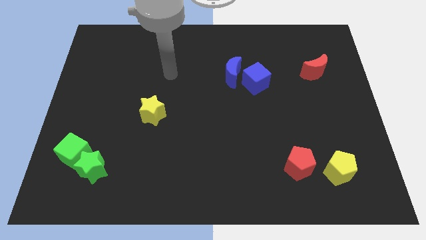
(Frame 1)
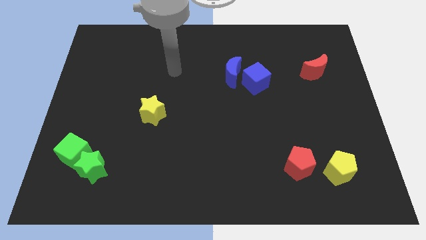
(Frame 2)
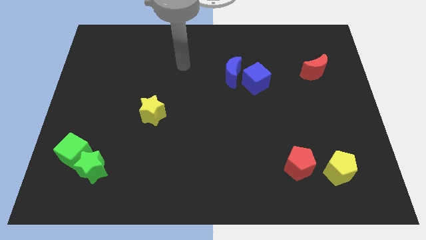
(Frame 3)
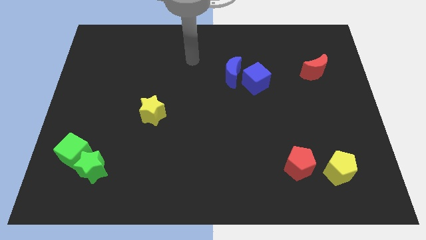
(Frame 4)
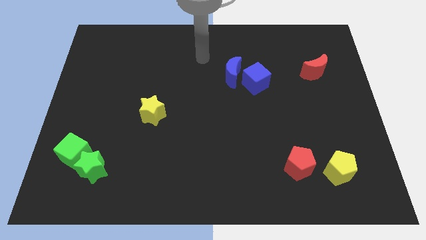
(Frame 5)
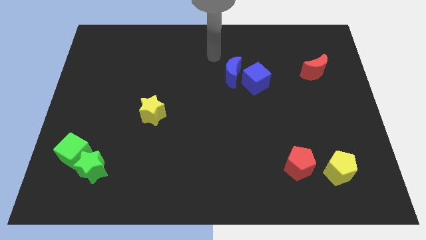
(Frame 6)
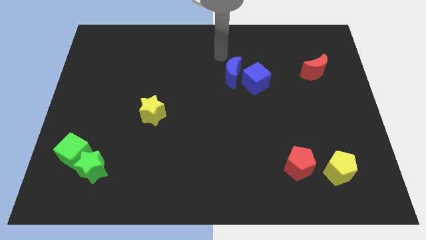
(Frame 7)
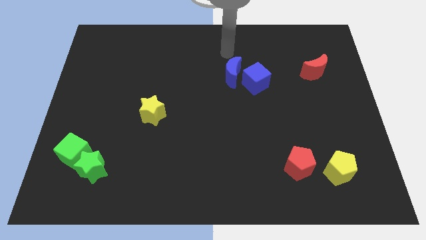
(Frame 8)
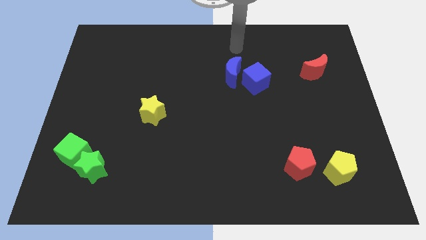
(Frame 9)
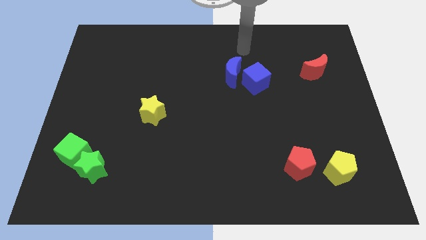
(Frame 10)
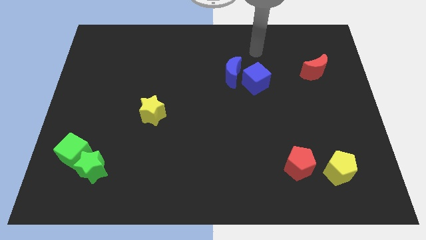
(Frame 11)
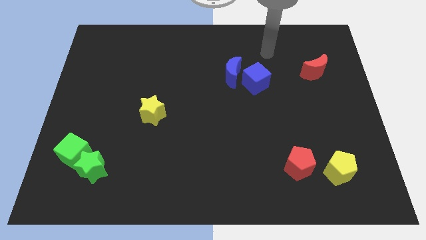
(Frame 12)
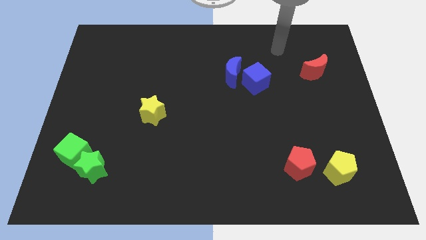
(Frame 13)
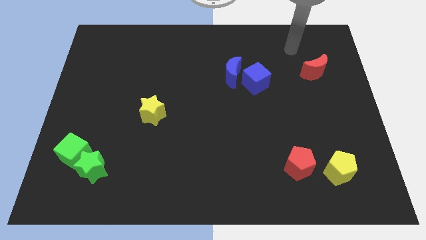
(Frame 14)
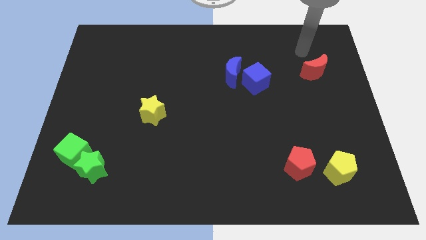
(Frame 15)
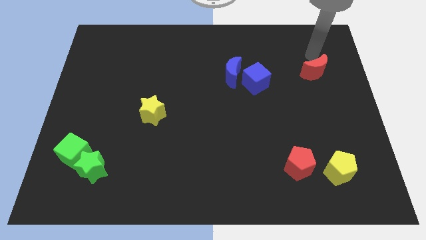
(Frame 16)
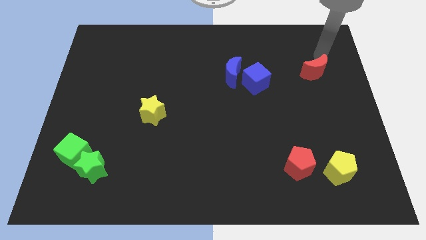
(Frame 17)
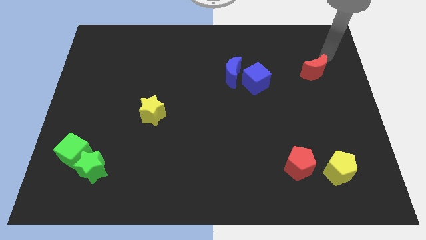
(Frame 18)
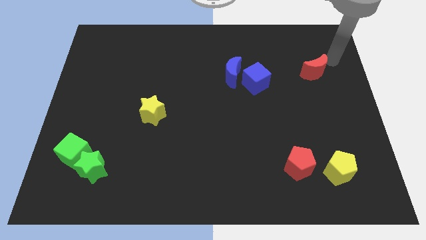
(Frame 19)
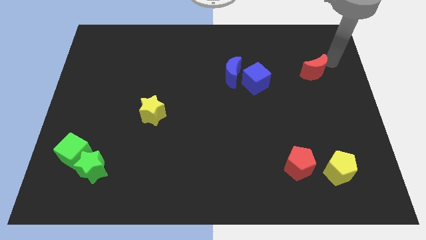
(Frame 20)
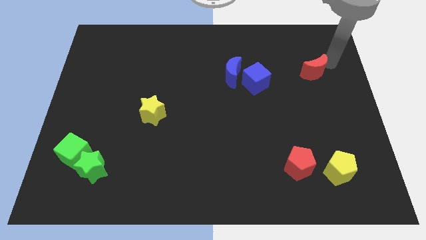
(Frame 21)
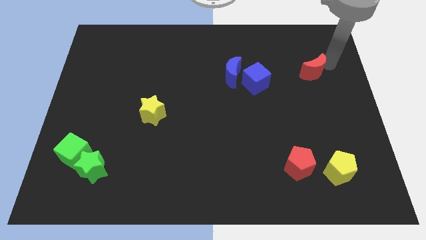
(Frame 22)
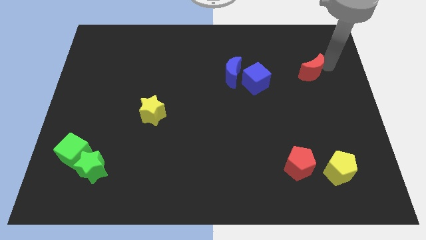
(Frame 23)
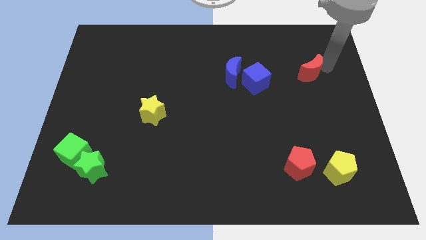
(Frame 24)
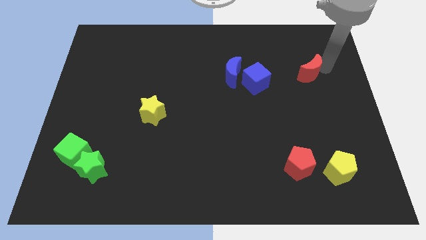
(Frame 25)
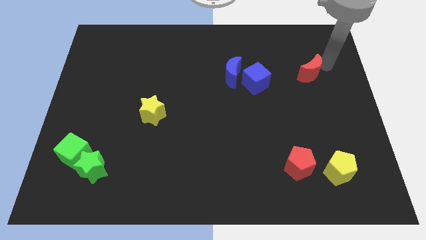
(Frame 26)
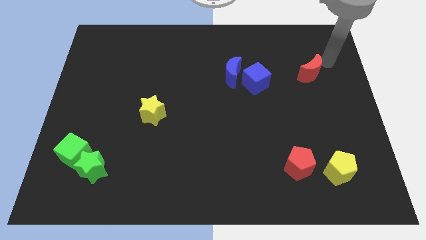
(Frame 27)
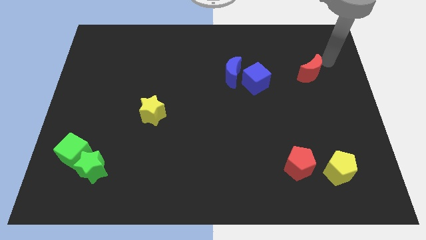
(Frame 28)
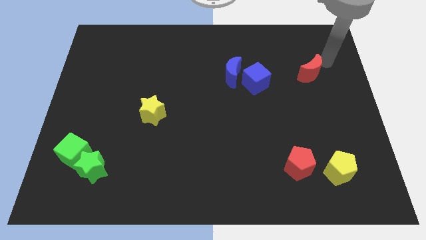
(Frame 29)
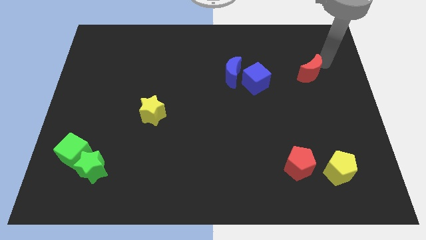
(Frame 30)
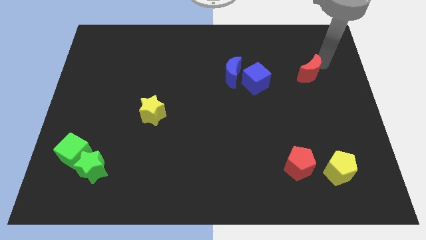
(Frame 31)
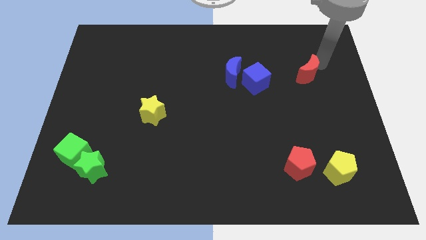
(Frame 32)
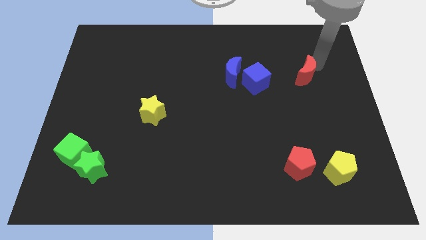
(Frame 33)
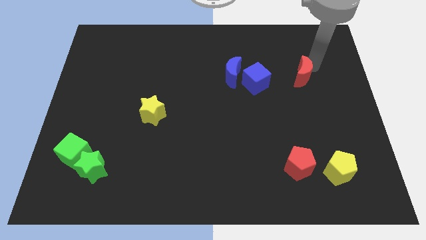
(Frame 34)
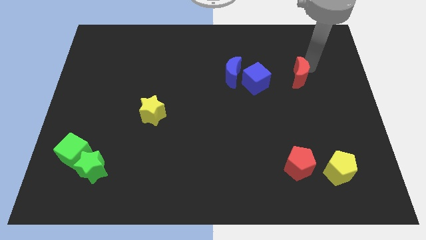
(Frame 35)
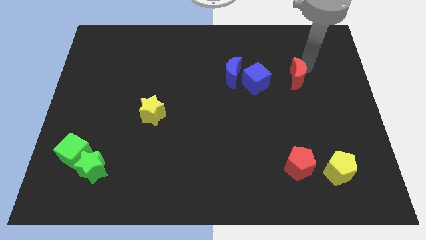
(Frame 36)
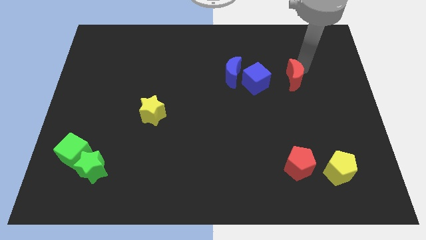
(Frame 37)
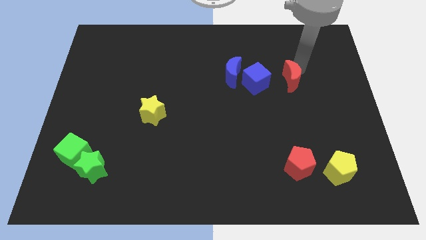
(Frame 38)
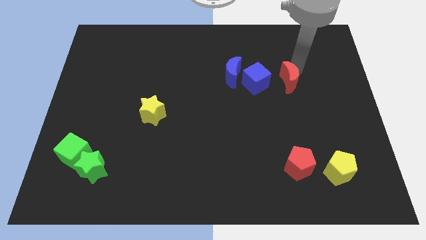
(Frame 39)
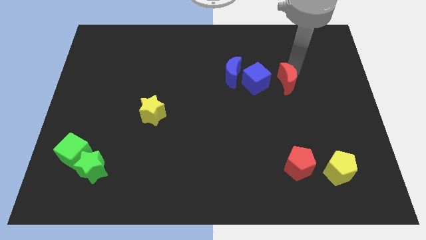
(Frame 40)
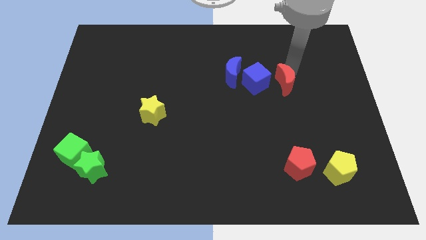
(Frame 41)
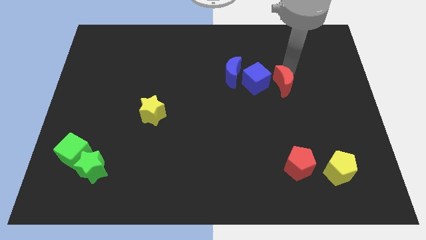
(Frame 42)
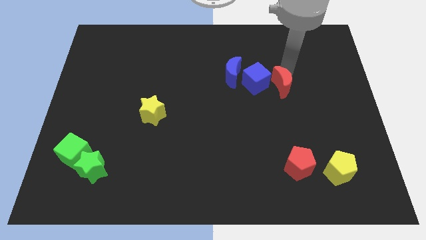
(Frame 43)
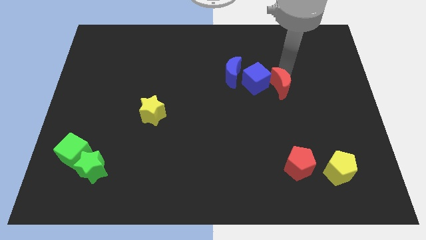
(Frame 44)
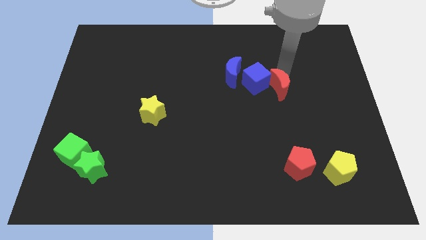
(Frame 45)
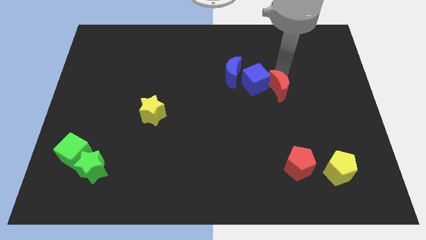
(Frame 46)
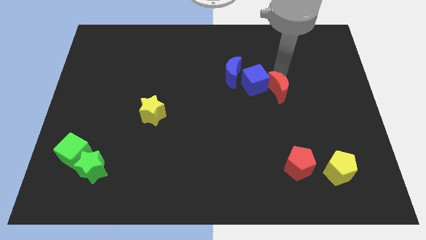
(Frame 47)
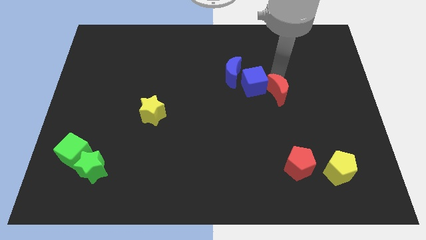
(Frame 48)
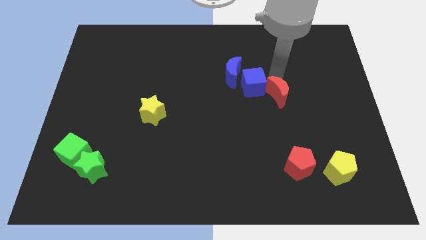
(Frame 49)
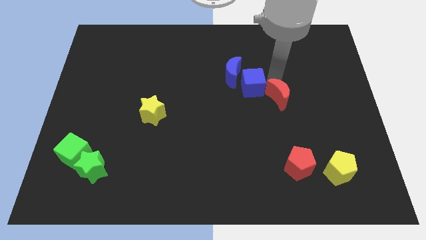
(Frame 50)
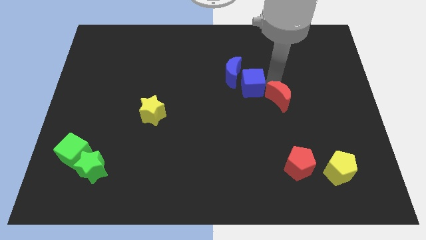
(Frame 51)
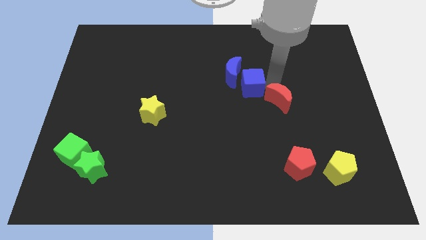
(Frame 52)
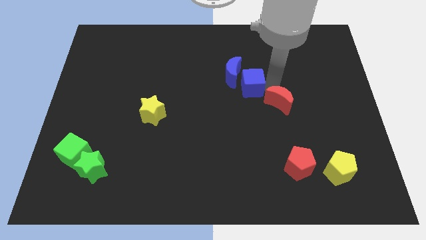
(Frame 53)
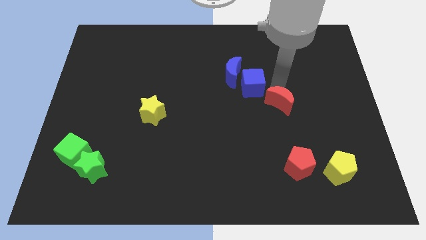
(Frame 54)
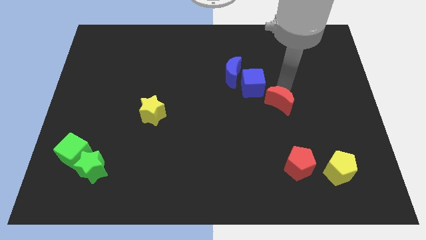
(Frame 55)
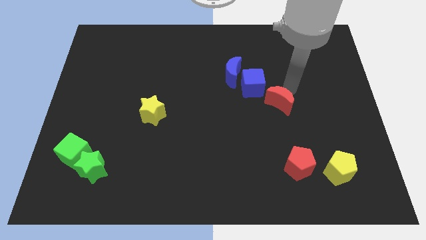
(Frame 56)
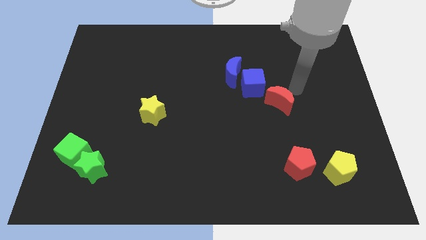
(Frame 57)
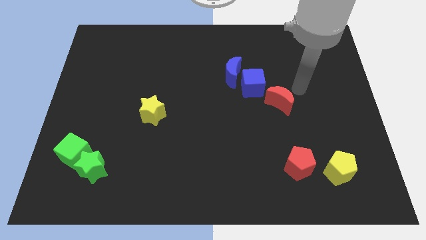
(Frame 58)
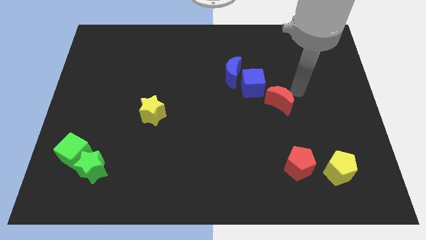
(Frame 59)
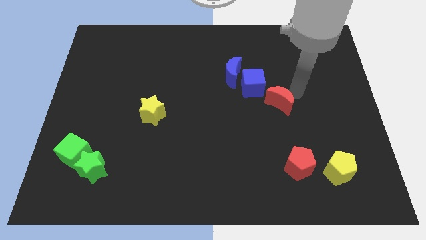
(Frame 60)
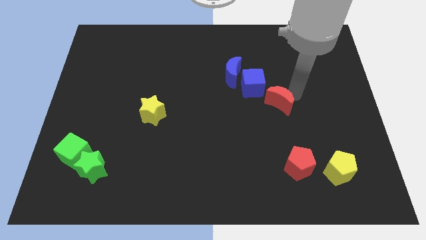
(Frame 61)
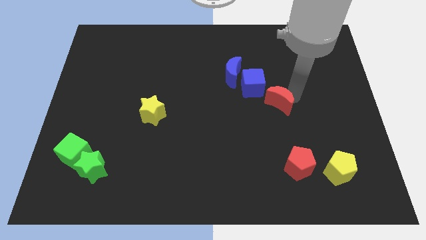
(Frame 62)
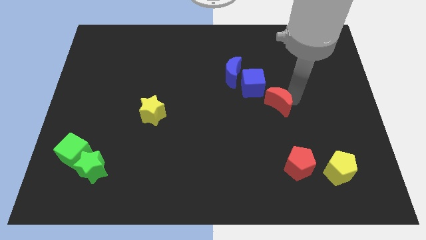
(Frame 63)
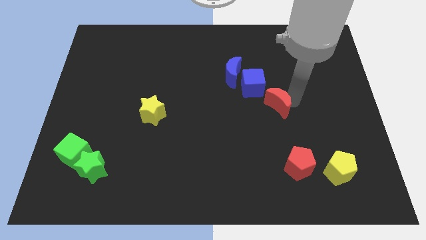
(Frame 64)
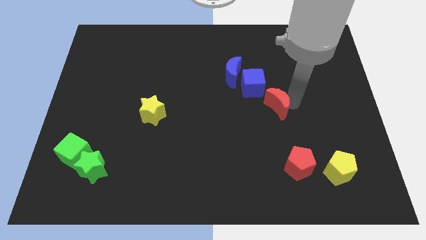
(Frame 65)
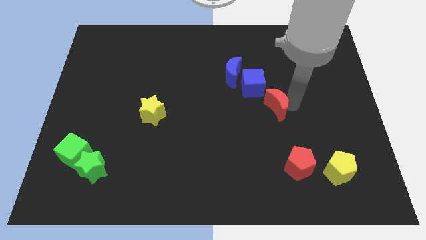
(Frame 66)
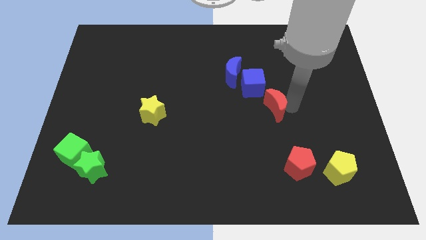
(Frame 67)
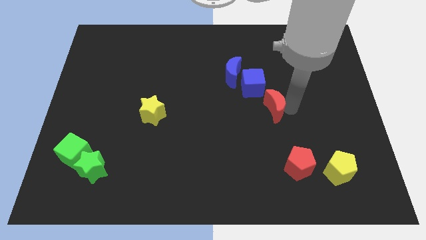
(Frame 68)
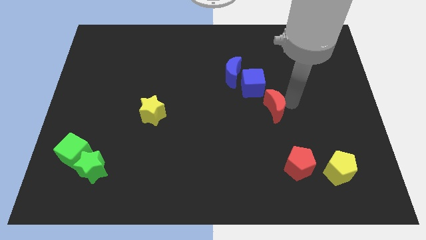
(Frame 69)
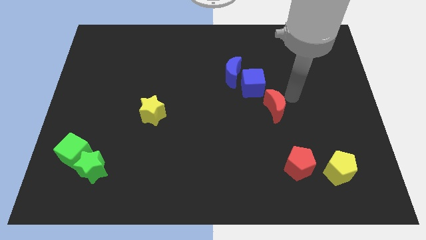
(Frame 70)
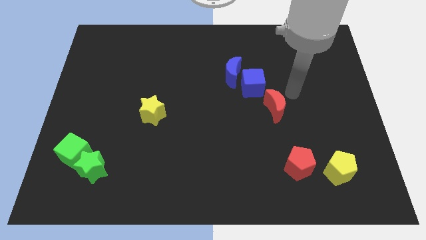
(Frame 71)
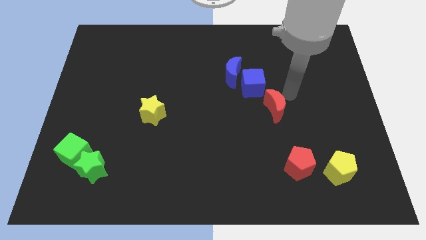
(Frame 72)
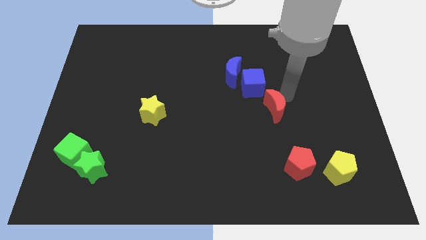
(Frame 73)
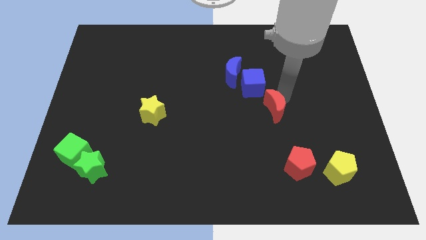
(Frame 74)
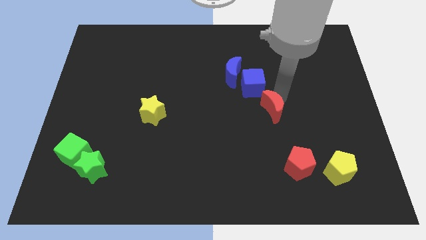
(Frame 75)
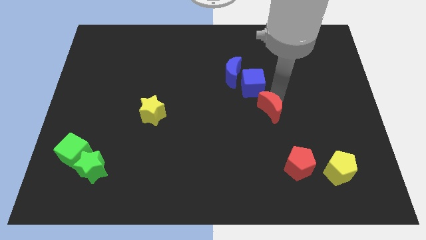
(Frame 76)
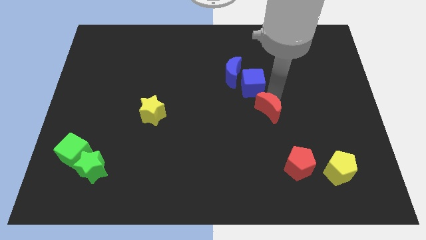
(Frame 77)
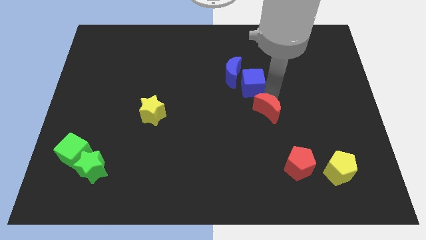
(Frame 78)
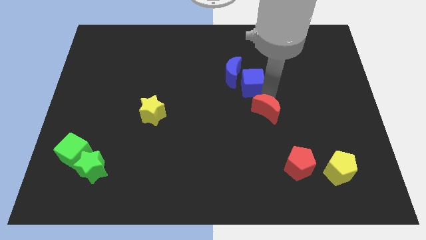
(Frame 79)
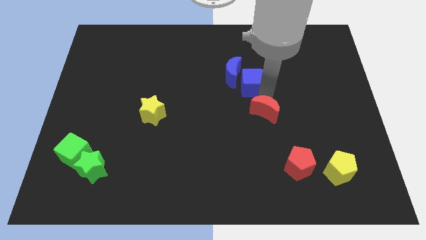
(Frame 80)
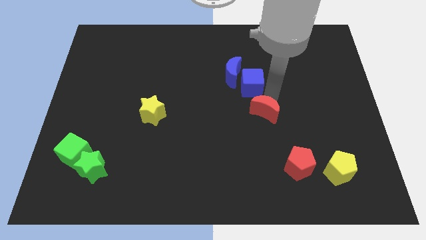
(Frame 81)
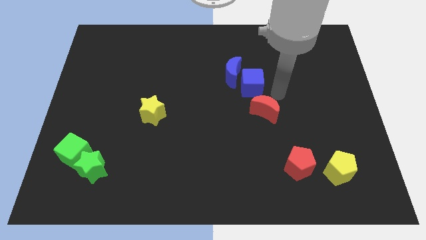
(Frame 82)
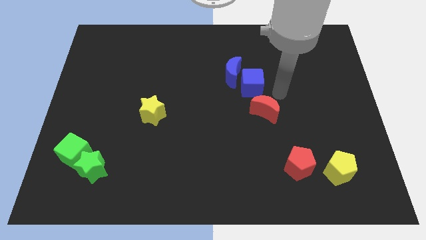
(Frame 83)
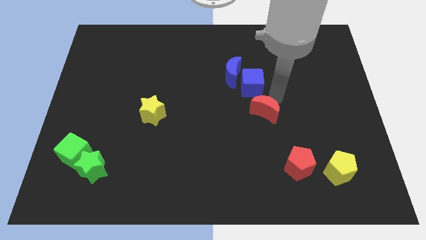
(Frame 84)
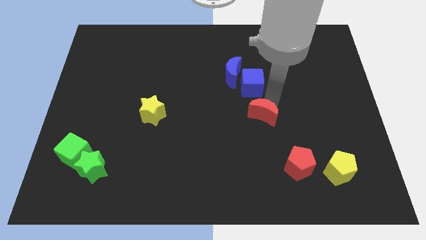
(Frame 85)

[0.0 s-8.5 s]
push the red moon diagonally down and to the left
